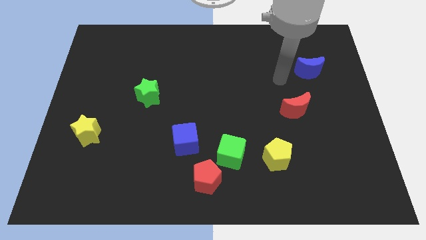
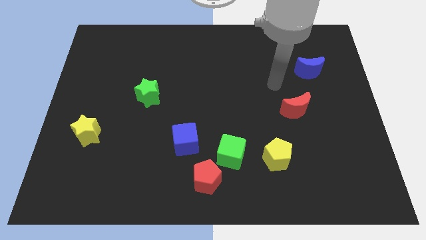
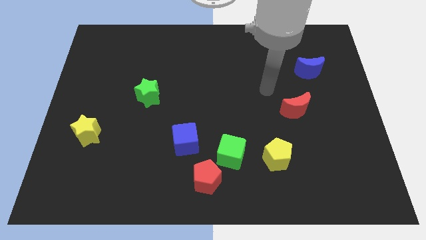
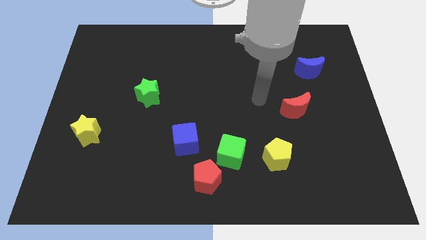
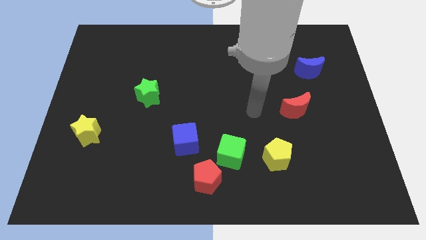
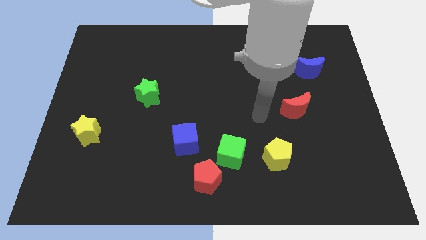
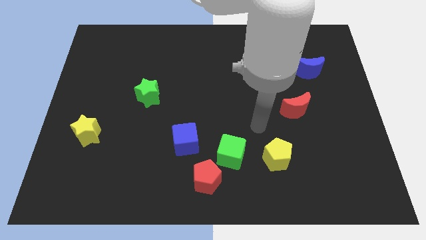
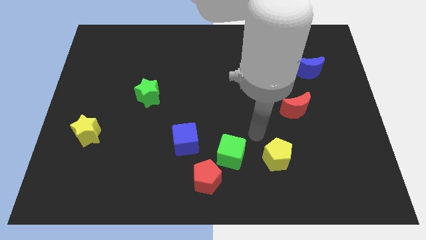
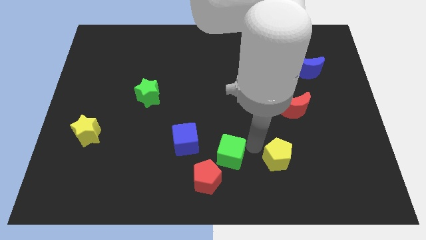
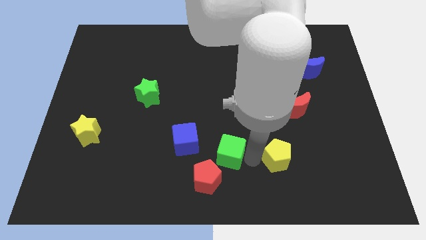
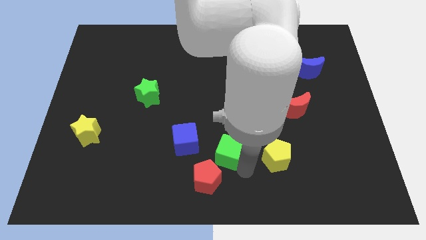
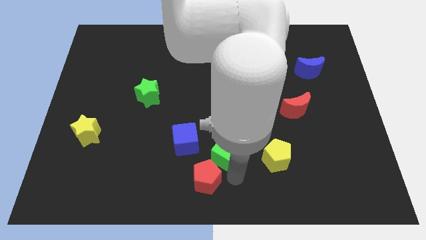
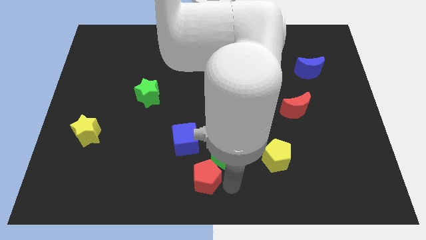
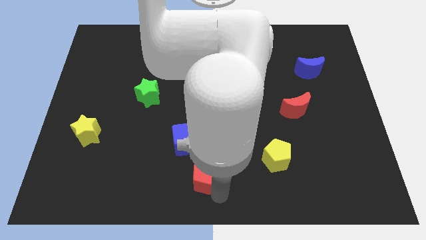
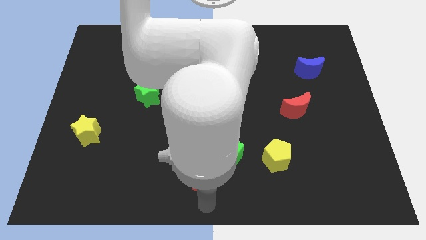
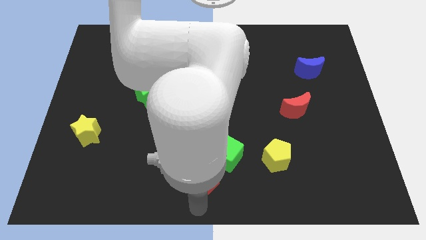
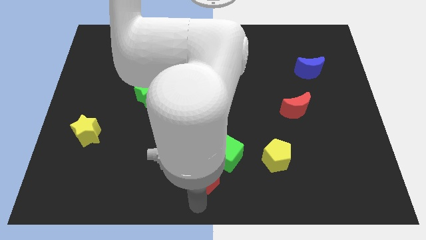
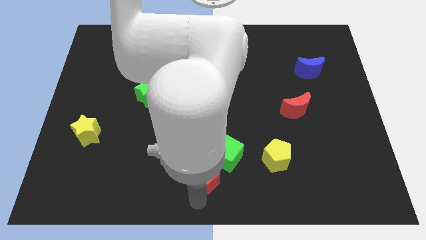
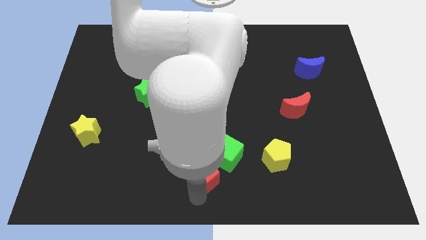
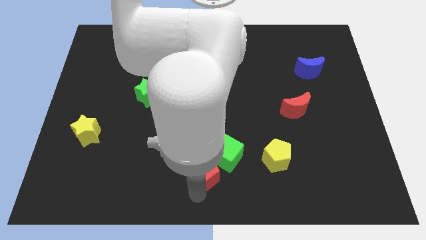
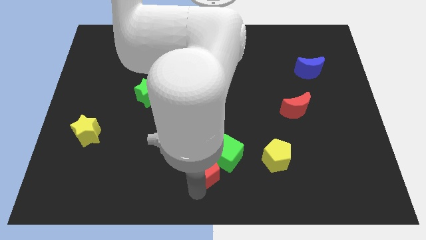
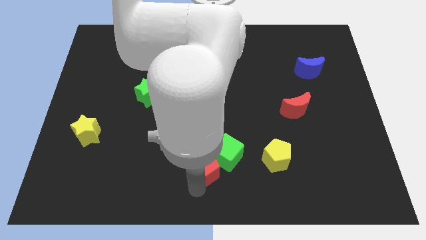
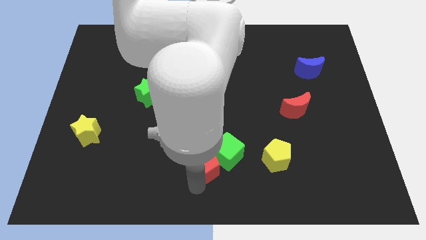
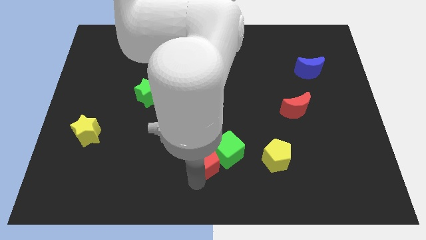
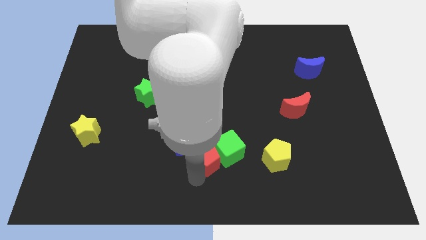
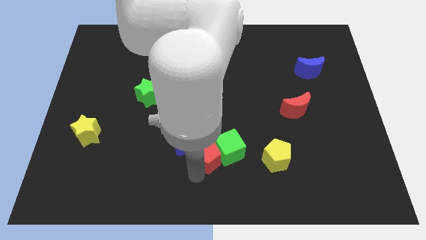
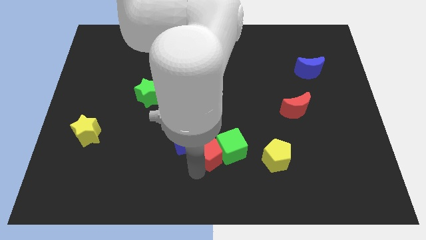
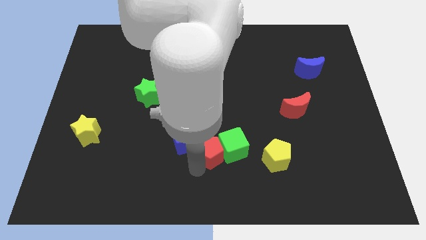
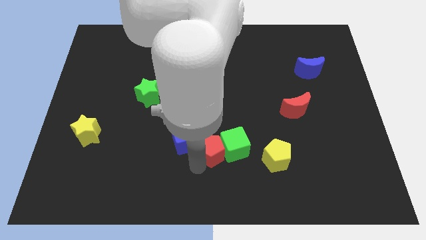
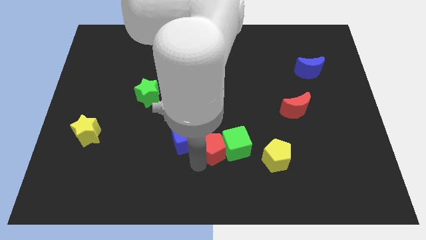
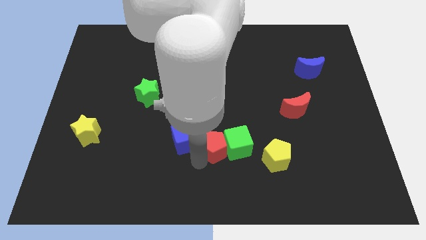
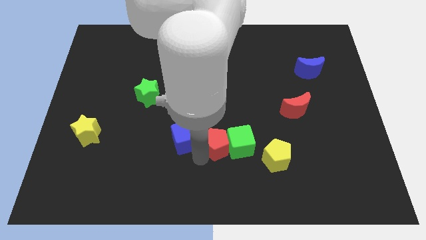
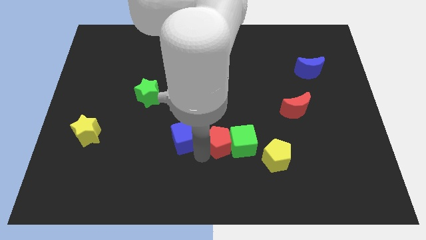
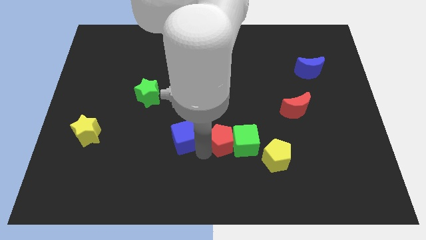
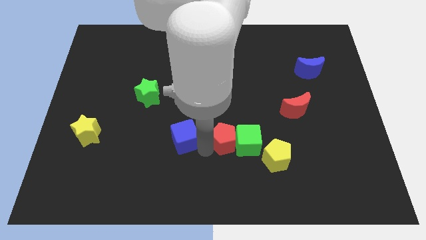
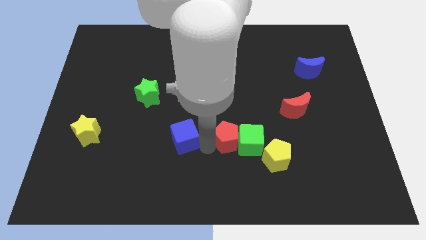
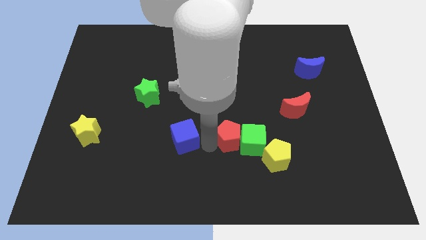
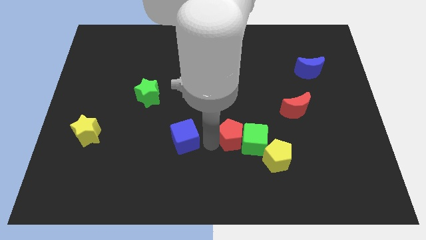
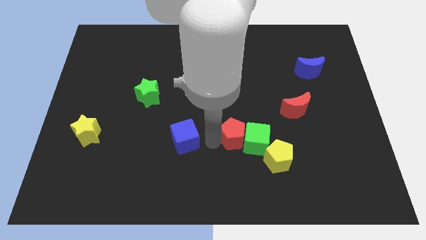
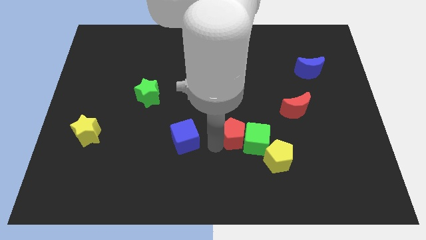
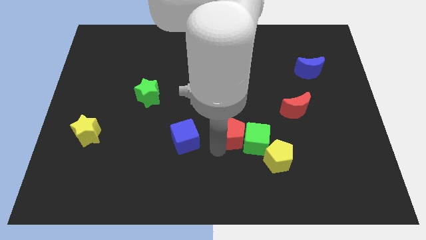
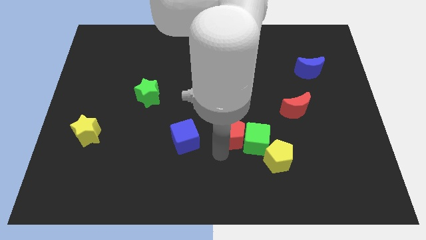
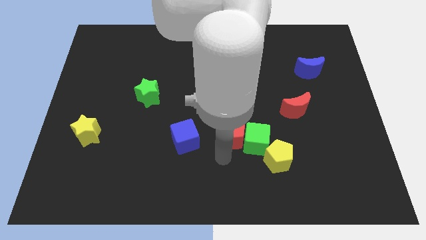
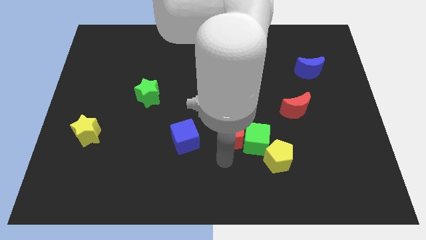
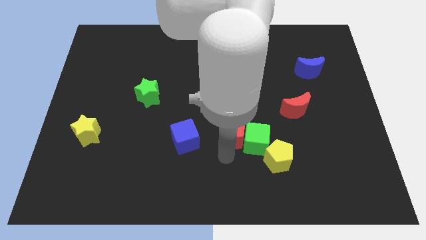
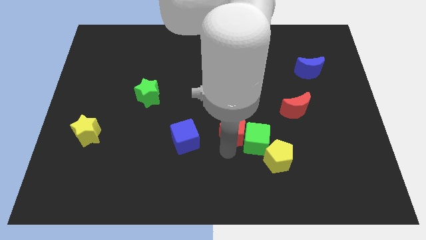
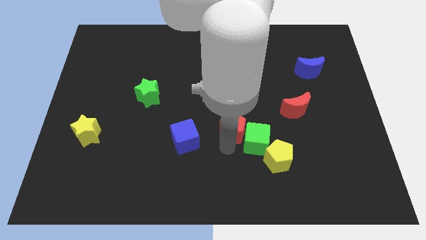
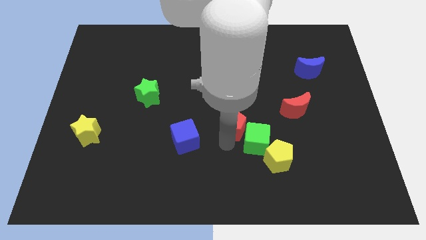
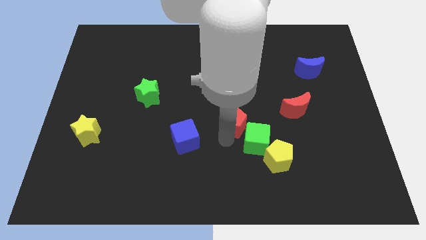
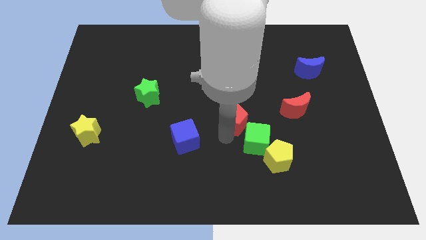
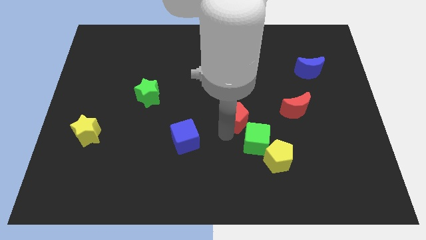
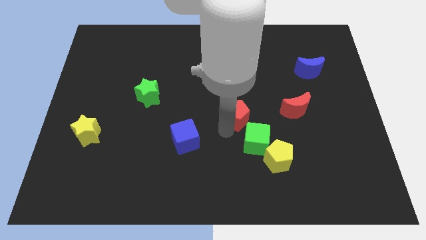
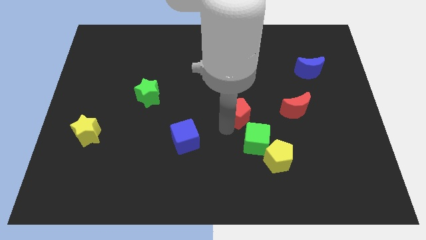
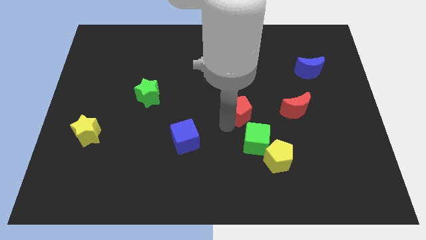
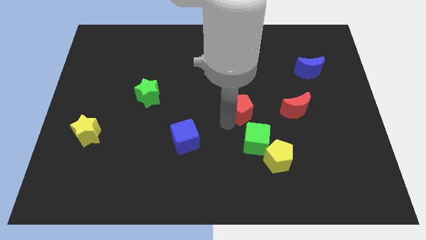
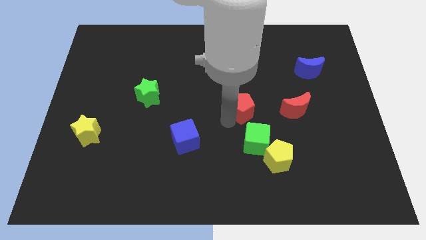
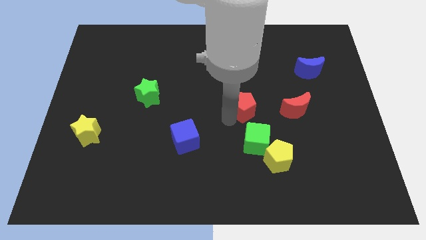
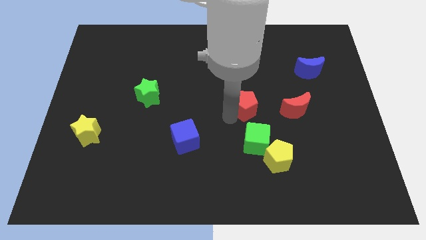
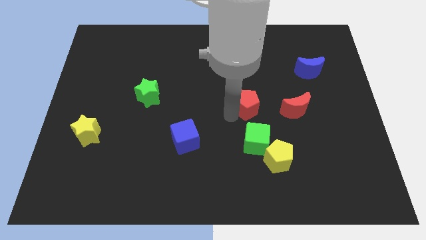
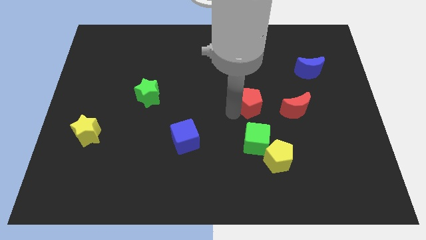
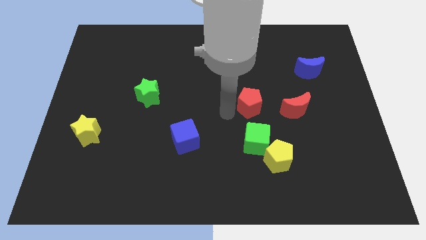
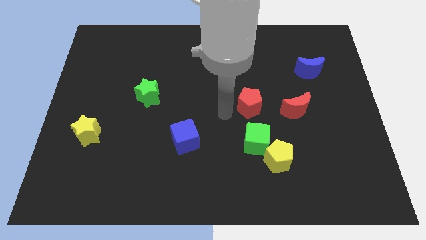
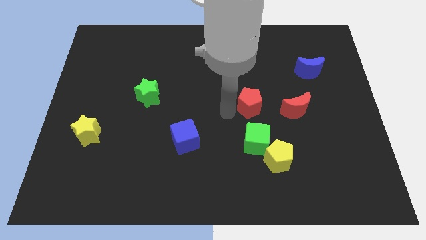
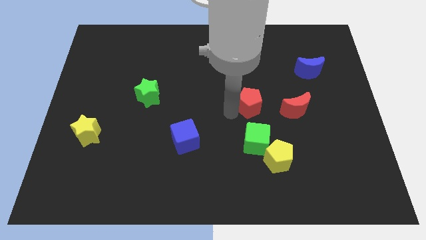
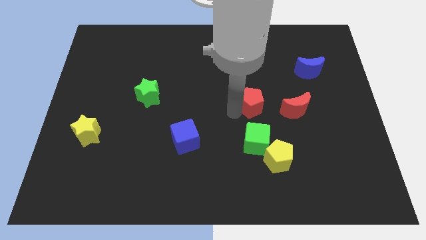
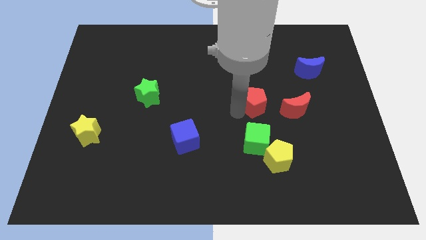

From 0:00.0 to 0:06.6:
push the red pentagon diagonally upwards and to the right

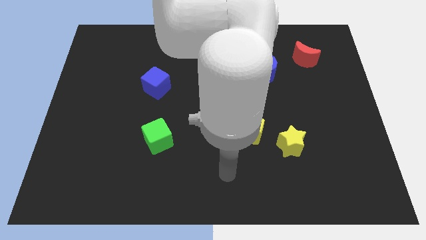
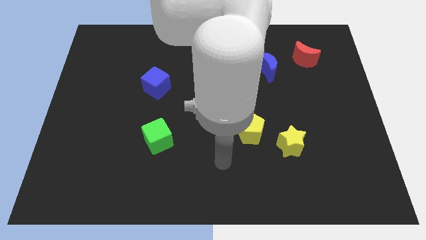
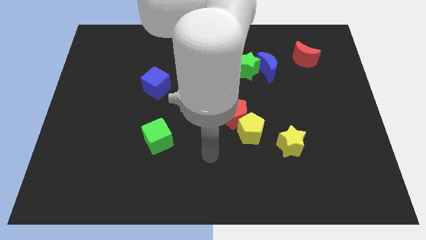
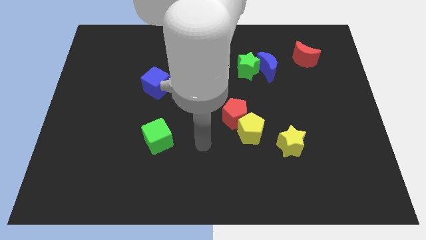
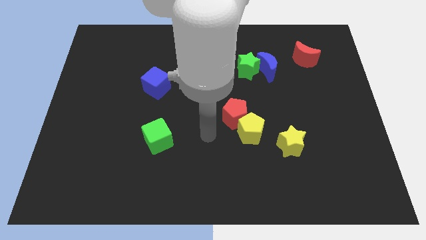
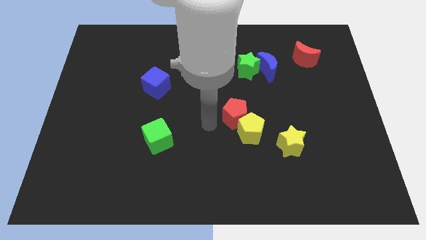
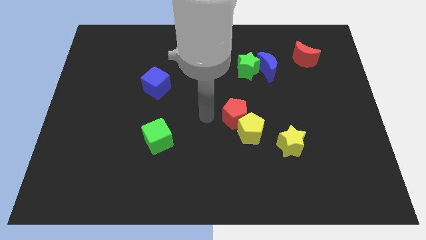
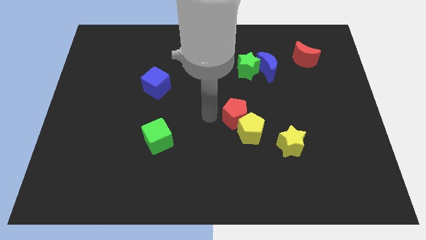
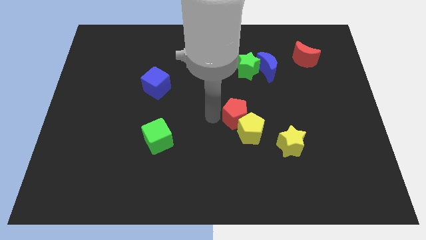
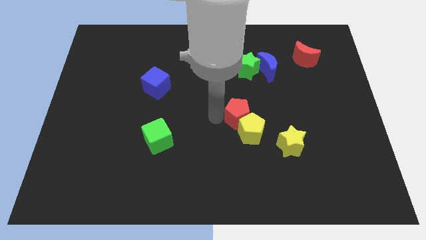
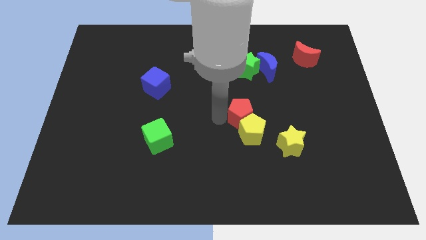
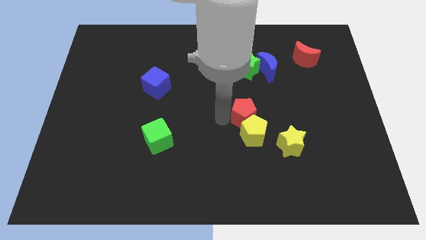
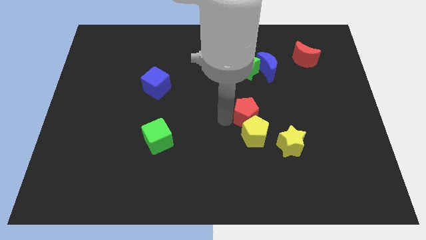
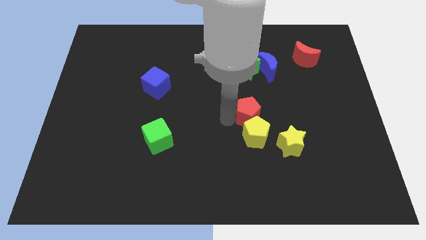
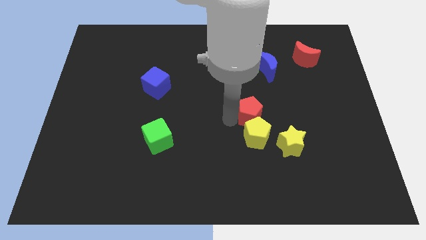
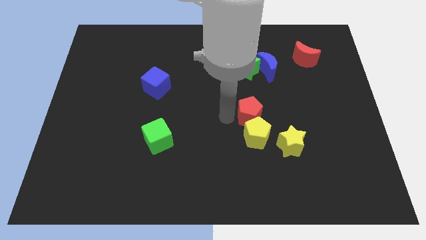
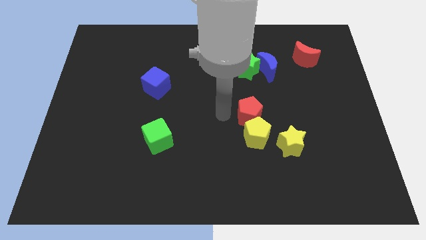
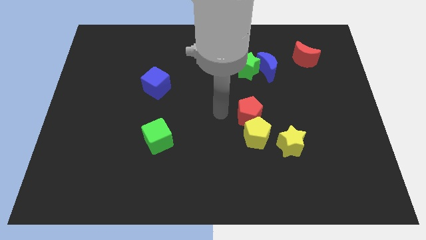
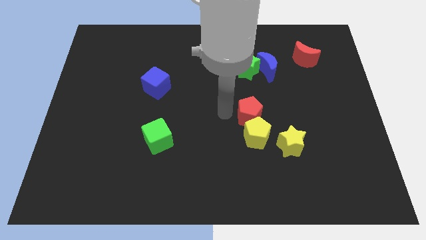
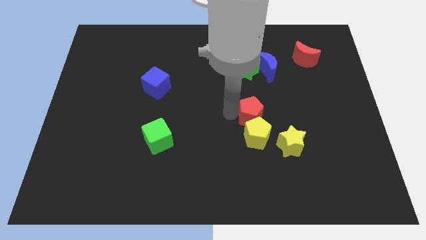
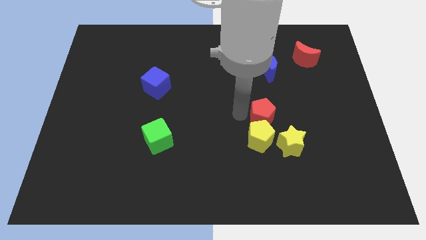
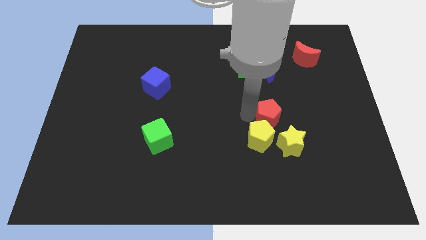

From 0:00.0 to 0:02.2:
slightly slide the red pentagon right
